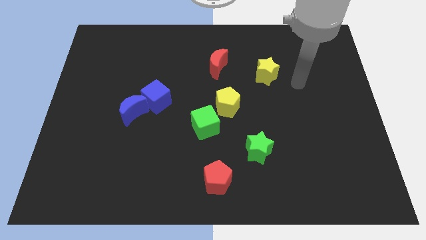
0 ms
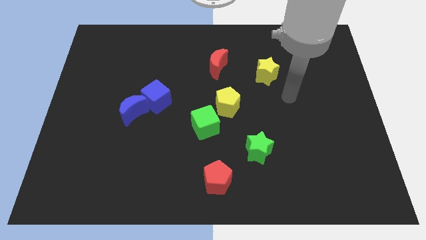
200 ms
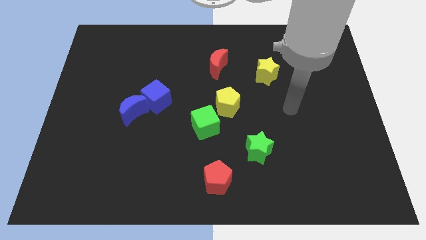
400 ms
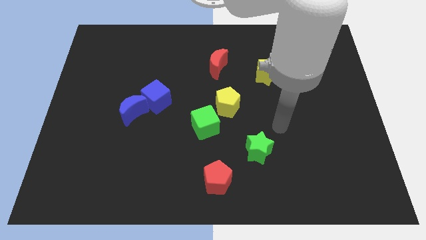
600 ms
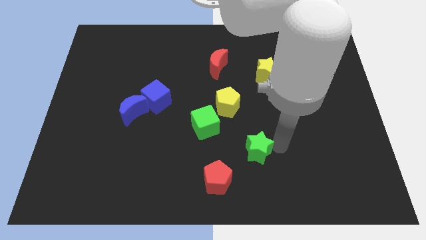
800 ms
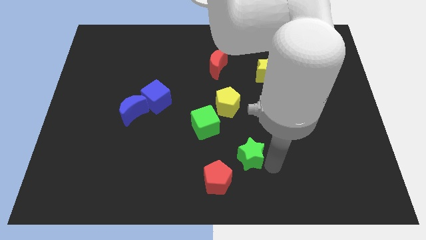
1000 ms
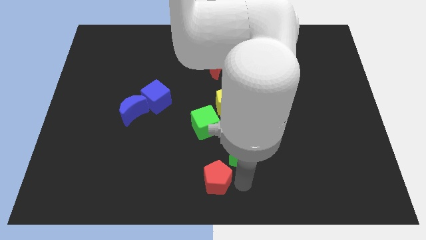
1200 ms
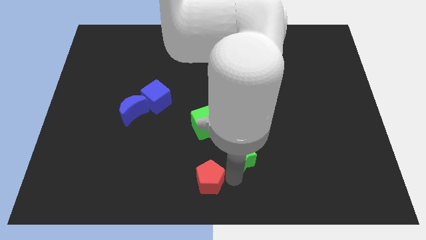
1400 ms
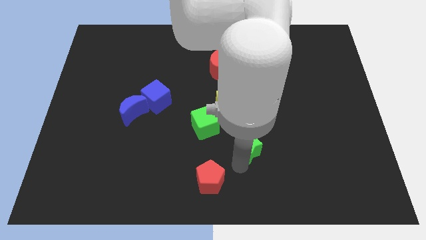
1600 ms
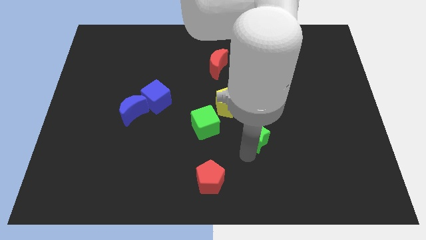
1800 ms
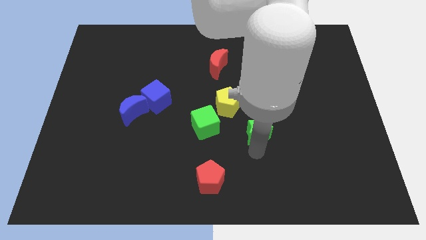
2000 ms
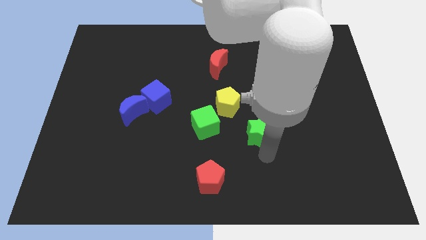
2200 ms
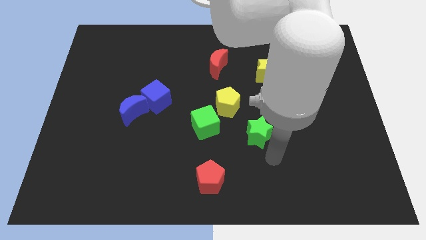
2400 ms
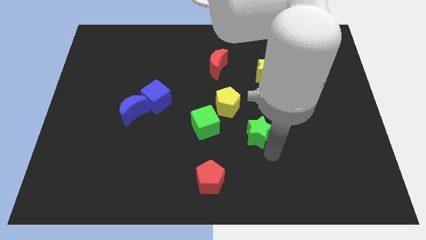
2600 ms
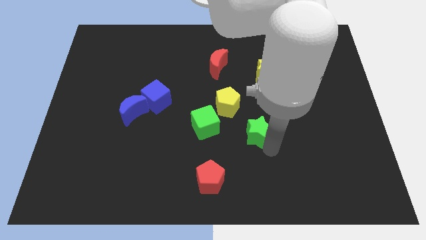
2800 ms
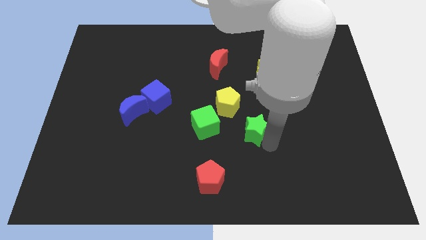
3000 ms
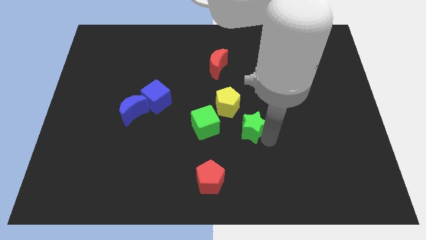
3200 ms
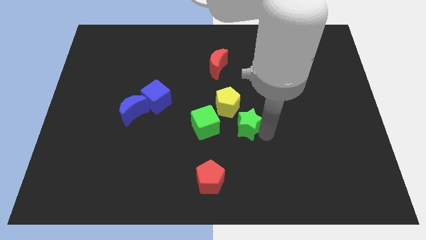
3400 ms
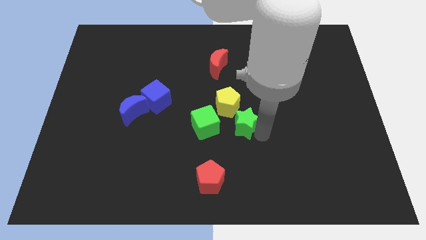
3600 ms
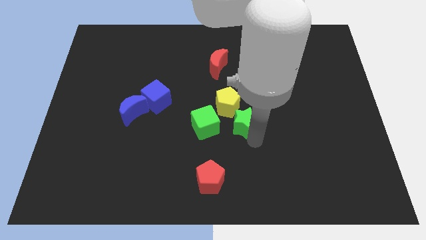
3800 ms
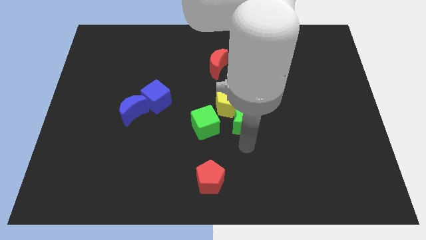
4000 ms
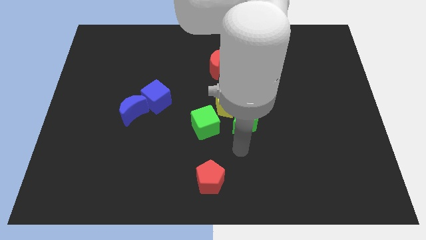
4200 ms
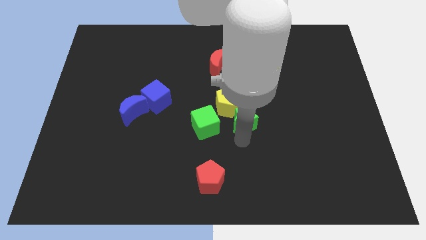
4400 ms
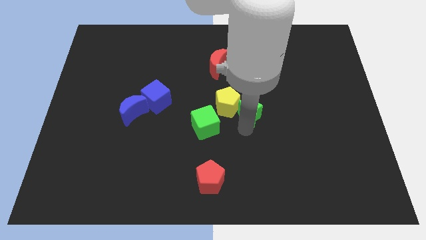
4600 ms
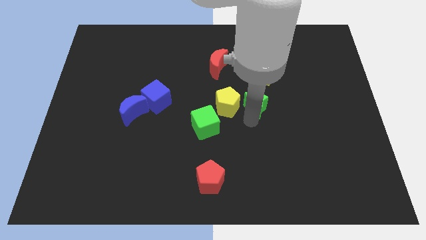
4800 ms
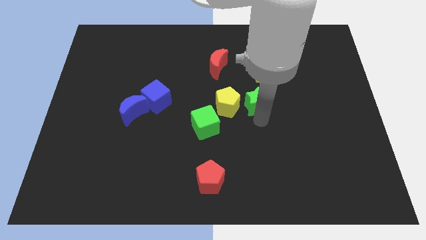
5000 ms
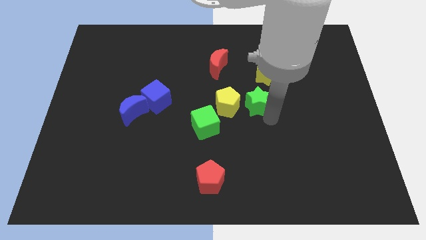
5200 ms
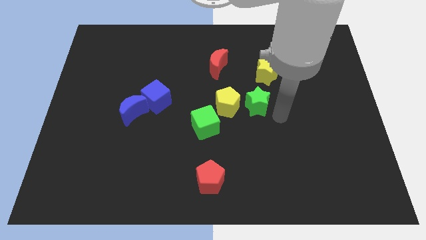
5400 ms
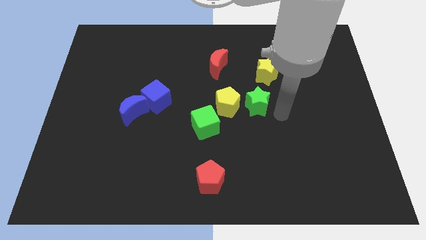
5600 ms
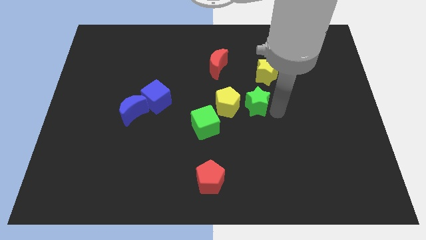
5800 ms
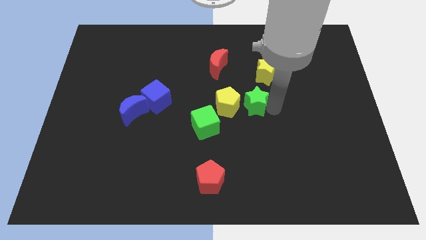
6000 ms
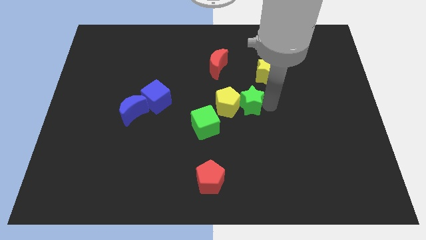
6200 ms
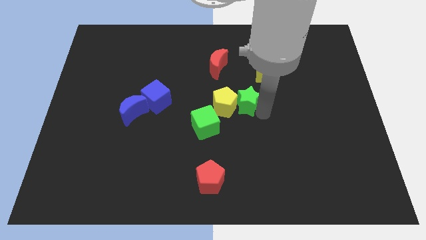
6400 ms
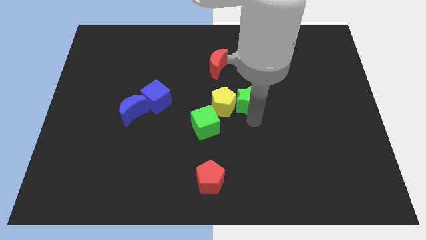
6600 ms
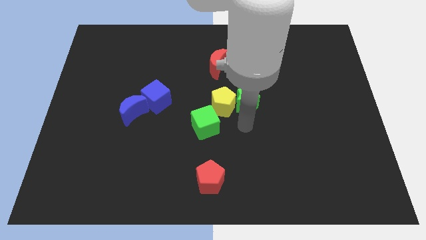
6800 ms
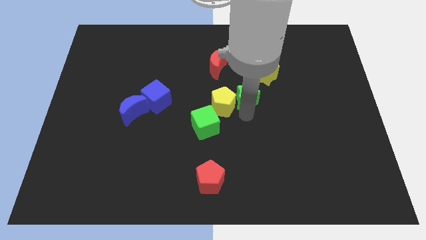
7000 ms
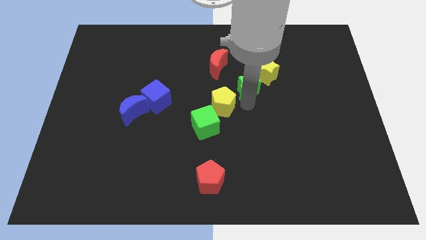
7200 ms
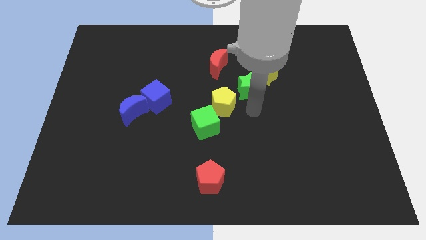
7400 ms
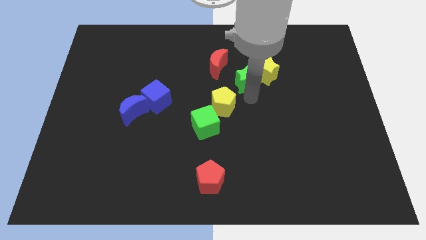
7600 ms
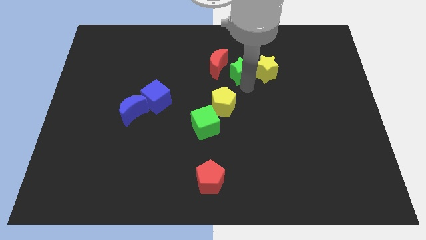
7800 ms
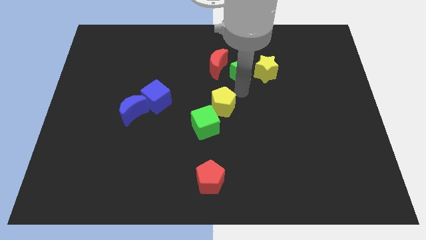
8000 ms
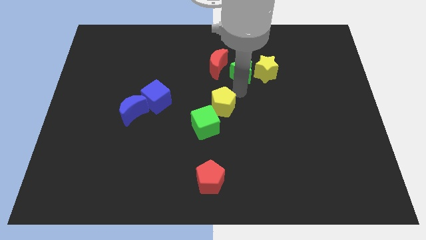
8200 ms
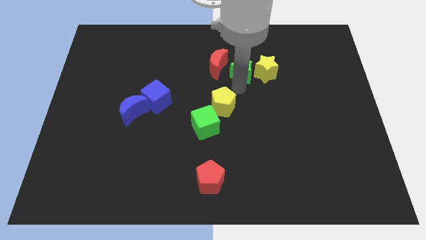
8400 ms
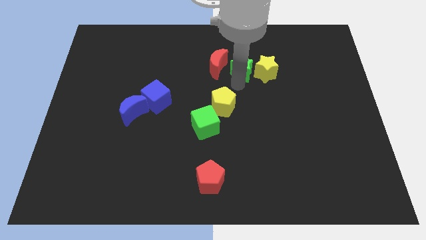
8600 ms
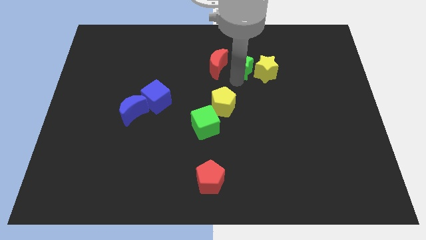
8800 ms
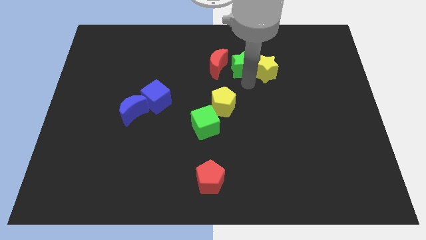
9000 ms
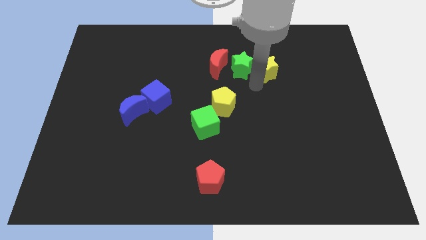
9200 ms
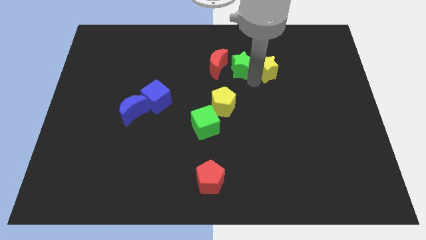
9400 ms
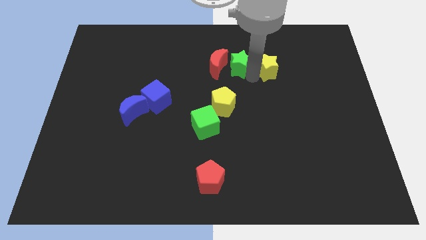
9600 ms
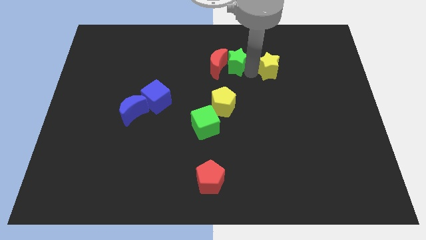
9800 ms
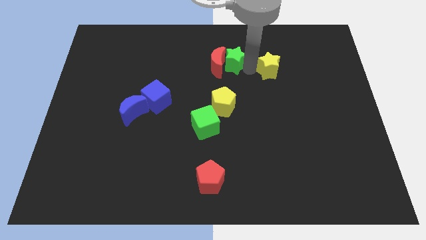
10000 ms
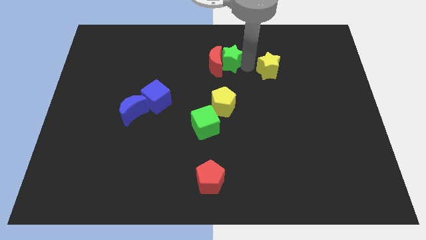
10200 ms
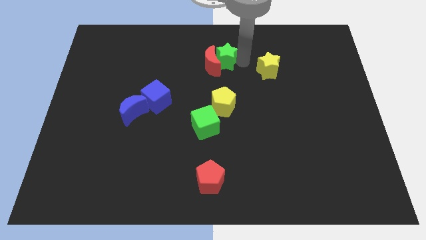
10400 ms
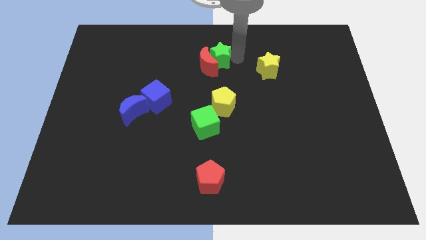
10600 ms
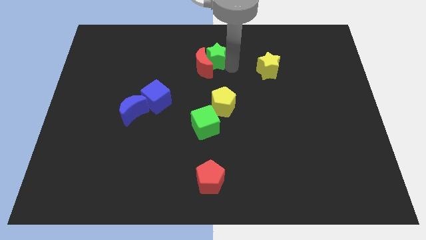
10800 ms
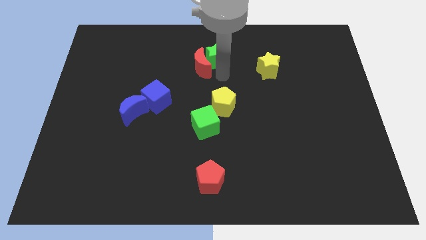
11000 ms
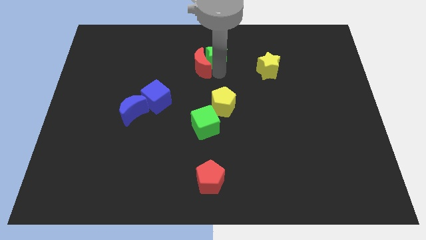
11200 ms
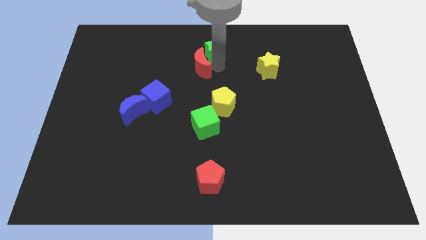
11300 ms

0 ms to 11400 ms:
slide the green star to the top
